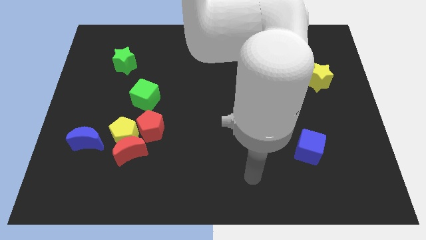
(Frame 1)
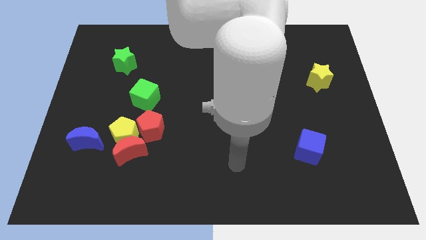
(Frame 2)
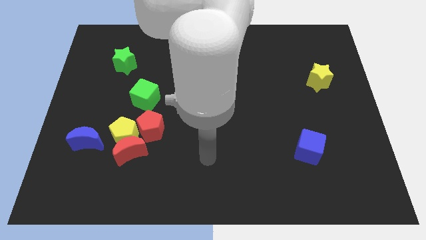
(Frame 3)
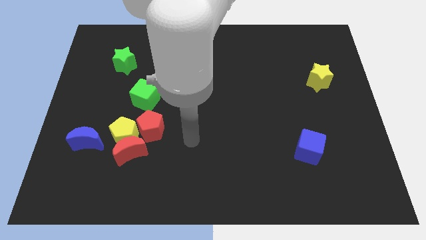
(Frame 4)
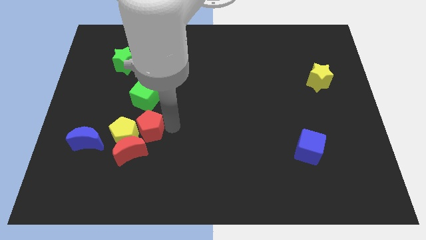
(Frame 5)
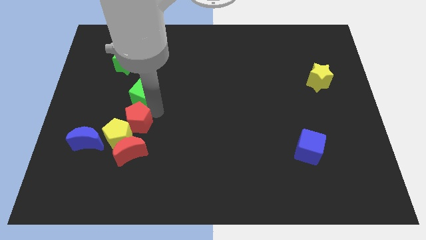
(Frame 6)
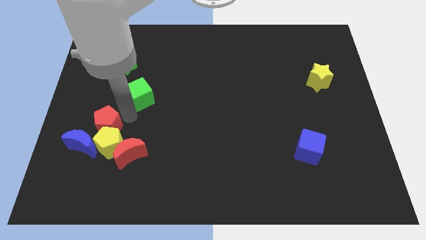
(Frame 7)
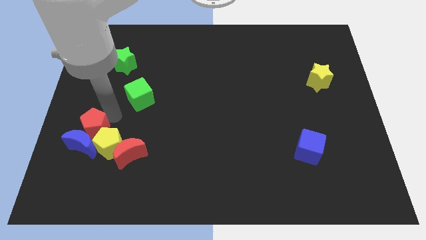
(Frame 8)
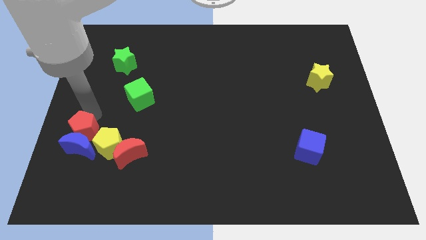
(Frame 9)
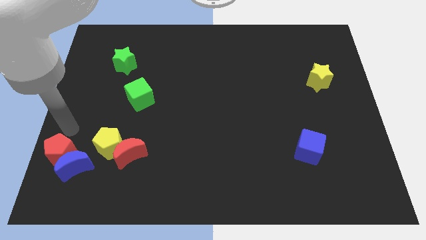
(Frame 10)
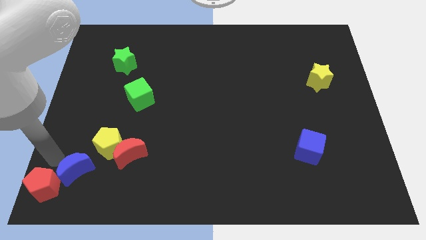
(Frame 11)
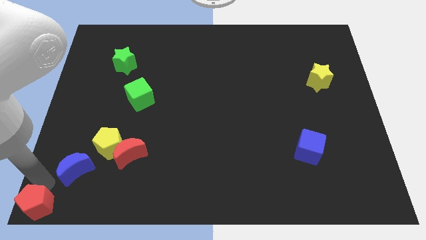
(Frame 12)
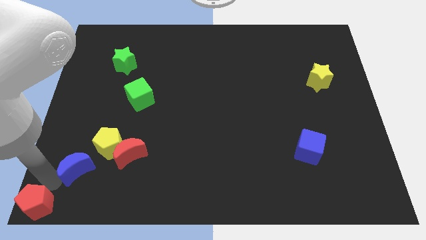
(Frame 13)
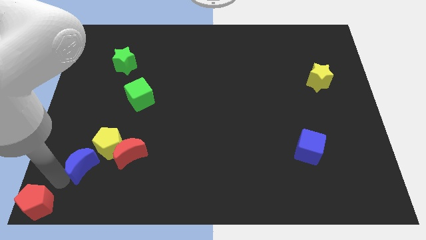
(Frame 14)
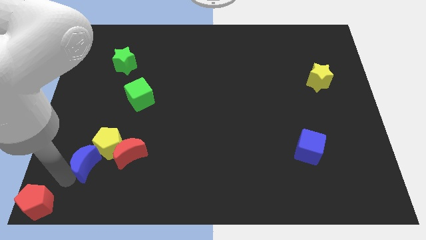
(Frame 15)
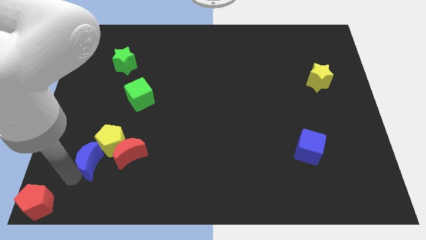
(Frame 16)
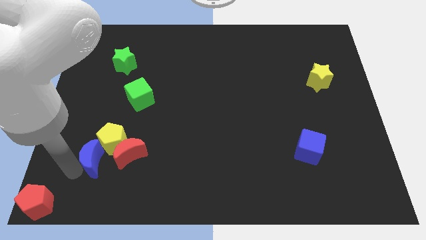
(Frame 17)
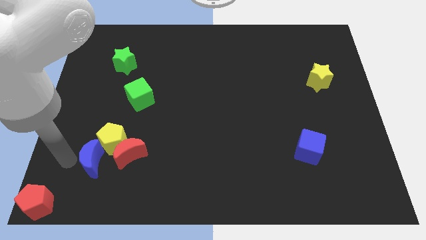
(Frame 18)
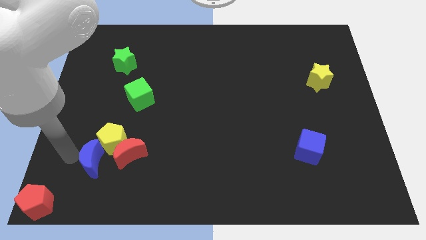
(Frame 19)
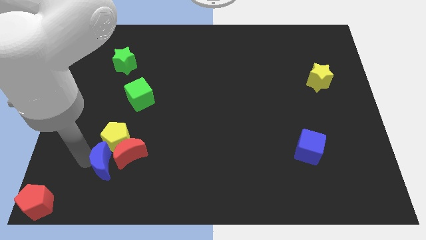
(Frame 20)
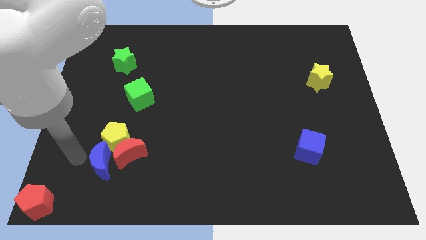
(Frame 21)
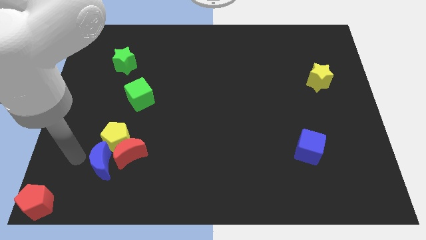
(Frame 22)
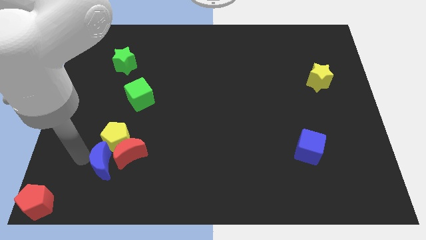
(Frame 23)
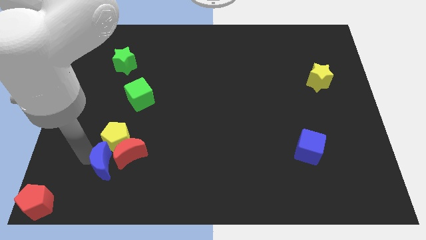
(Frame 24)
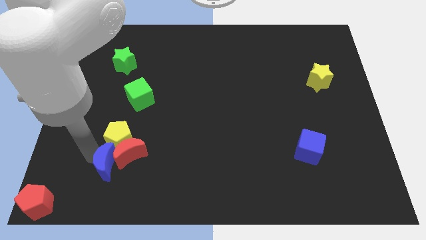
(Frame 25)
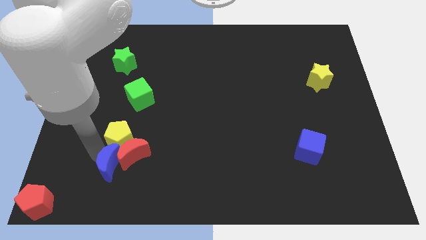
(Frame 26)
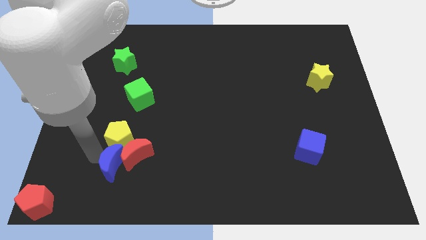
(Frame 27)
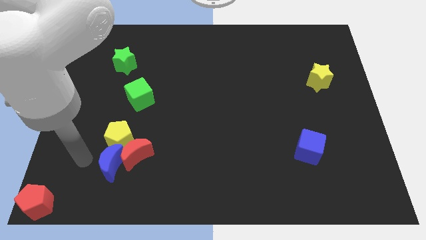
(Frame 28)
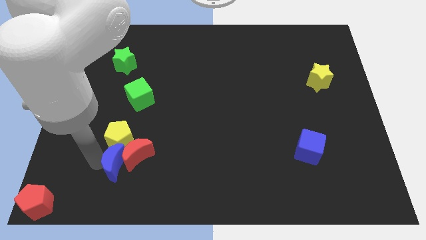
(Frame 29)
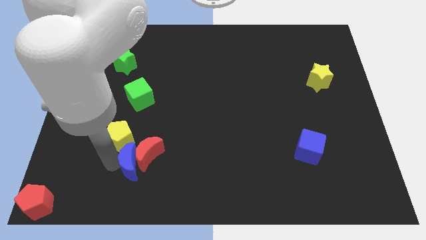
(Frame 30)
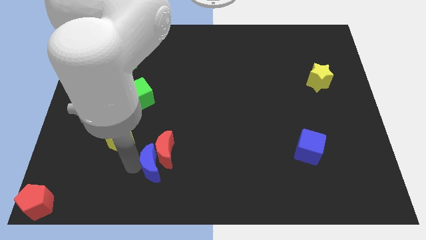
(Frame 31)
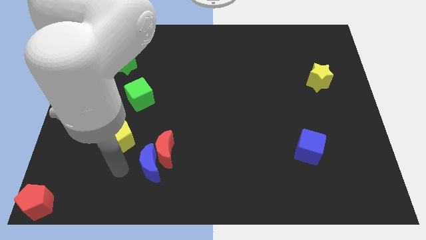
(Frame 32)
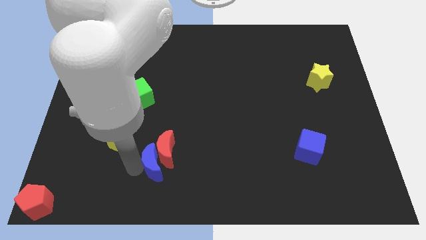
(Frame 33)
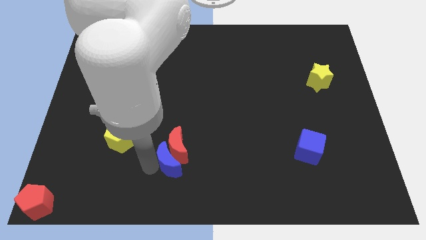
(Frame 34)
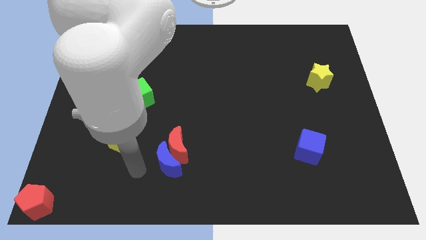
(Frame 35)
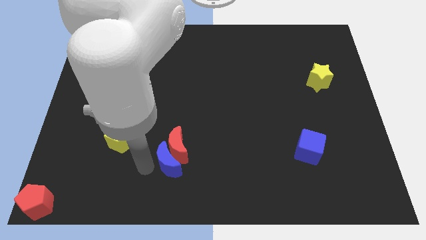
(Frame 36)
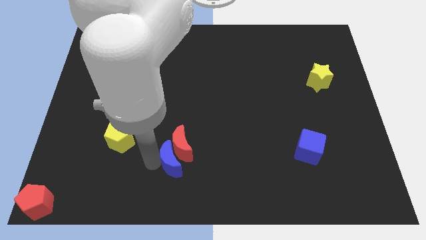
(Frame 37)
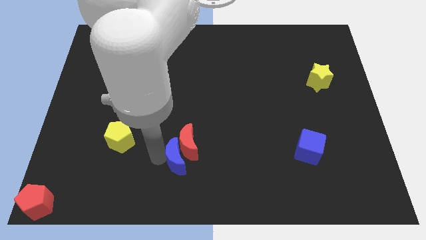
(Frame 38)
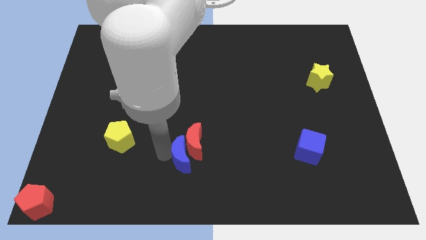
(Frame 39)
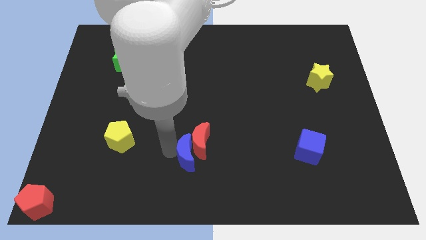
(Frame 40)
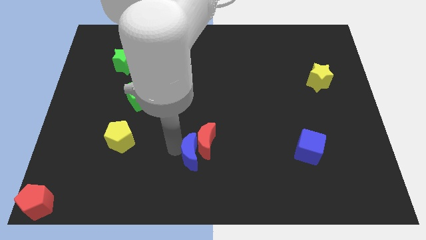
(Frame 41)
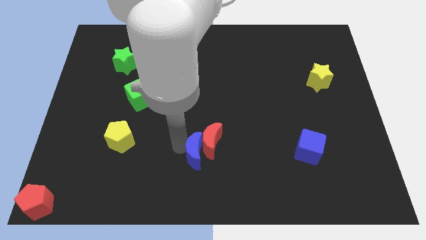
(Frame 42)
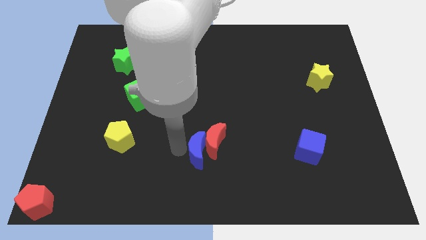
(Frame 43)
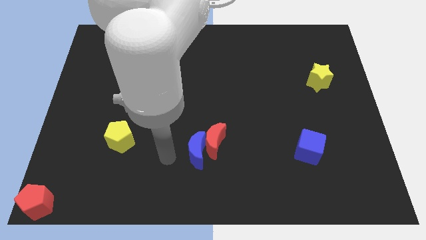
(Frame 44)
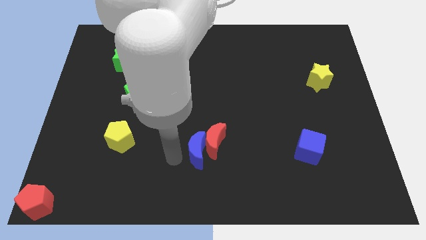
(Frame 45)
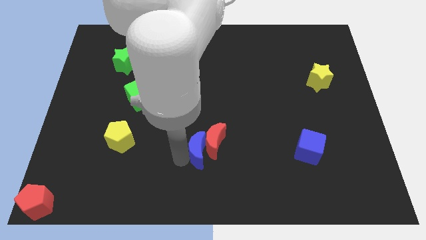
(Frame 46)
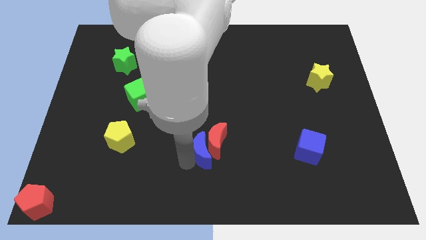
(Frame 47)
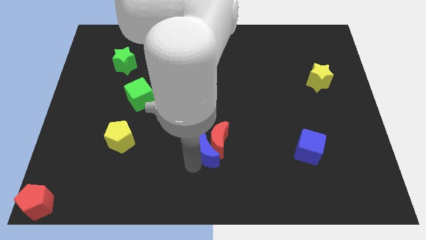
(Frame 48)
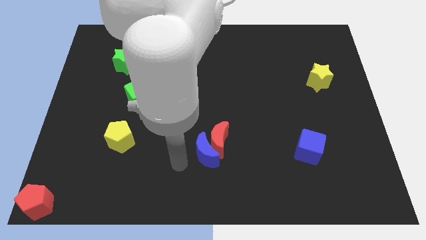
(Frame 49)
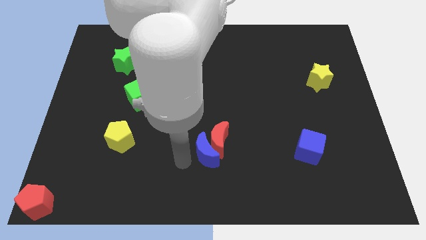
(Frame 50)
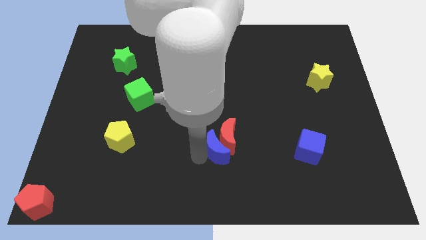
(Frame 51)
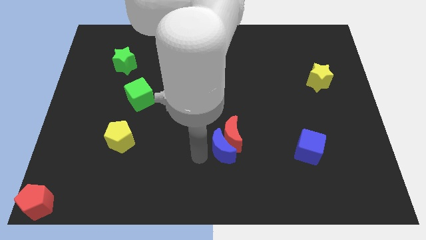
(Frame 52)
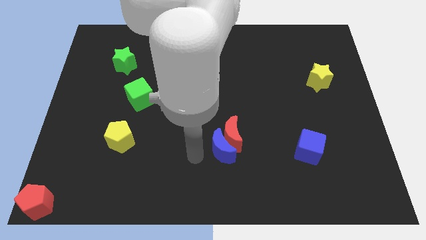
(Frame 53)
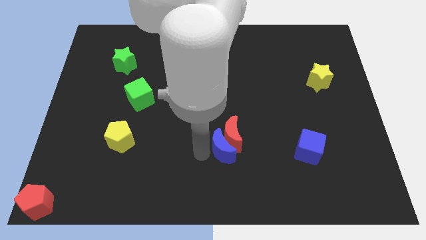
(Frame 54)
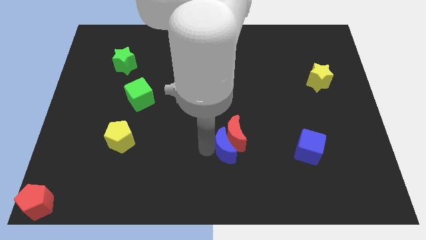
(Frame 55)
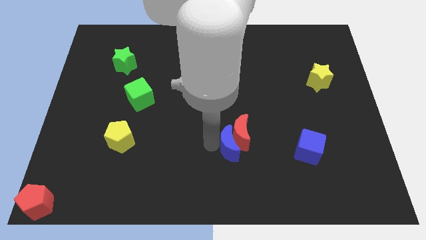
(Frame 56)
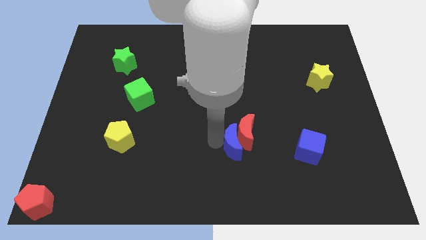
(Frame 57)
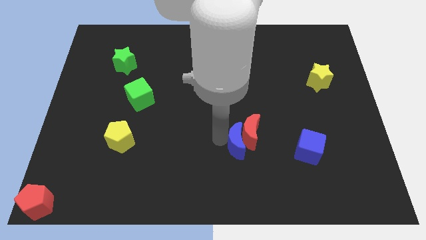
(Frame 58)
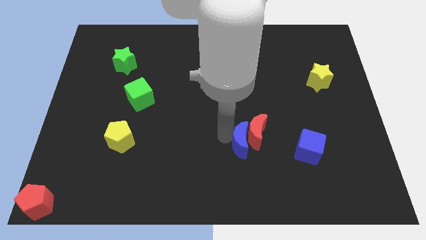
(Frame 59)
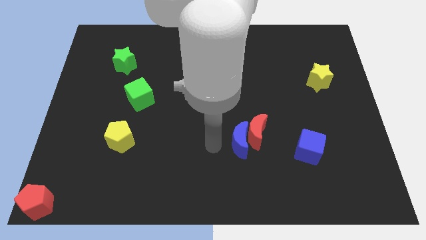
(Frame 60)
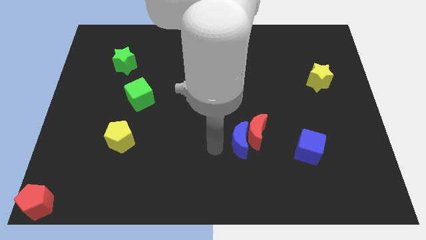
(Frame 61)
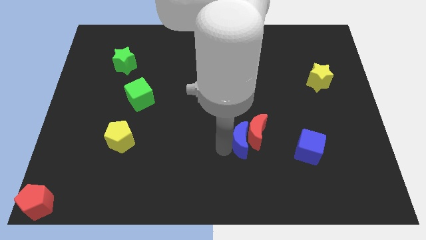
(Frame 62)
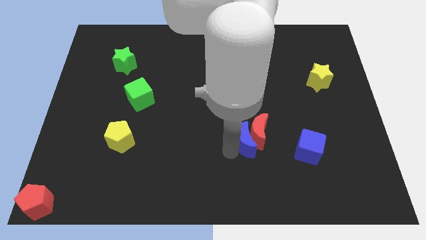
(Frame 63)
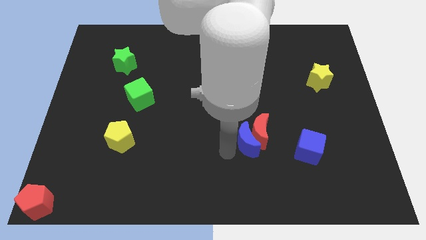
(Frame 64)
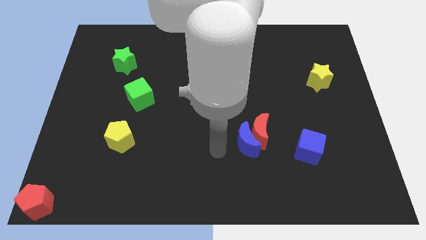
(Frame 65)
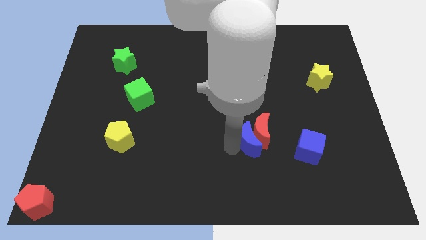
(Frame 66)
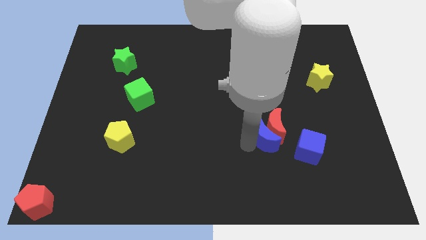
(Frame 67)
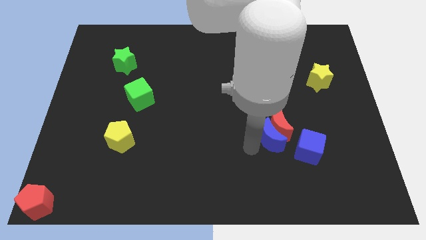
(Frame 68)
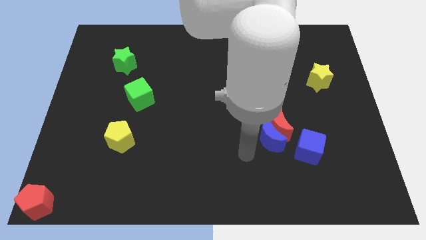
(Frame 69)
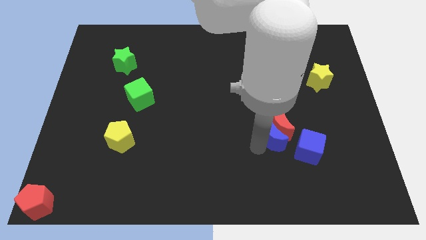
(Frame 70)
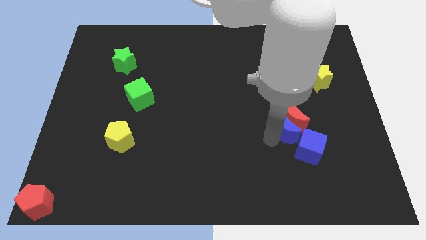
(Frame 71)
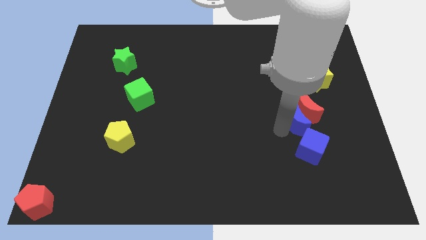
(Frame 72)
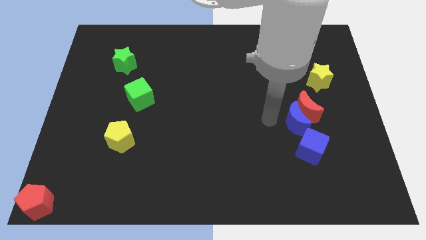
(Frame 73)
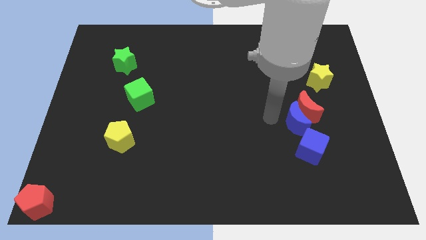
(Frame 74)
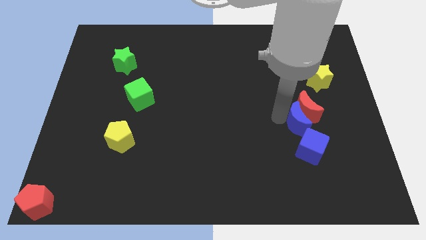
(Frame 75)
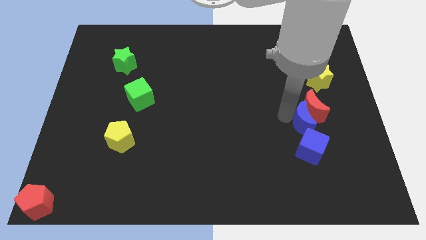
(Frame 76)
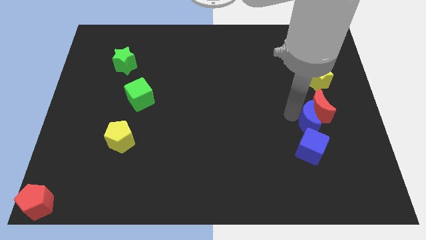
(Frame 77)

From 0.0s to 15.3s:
put the blue moon to the top right of the blue cube

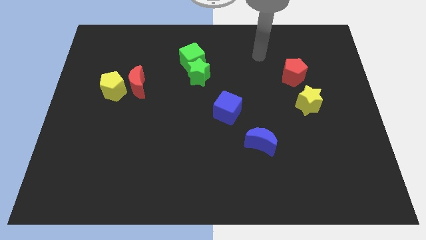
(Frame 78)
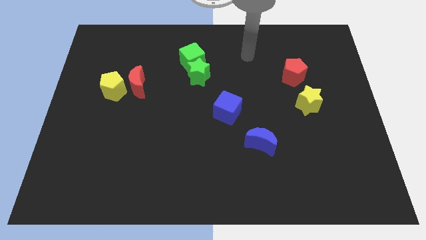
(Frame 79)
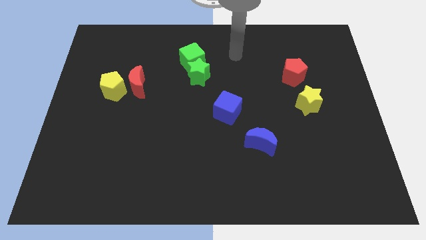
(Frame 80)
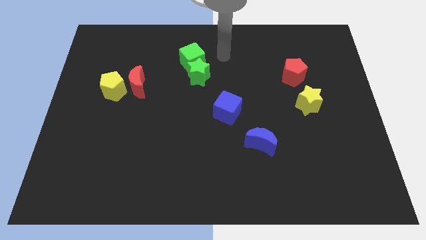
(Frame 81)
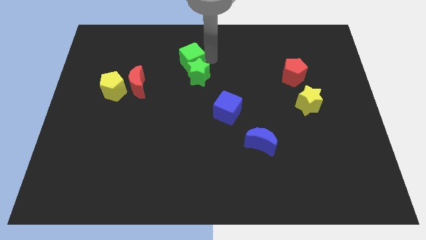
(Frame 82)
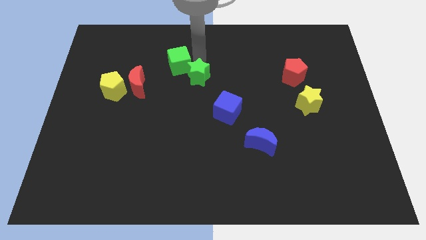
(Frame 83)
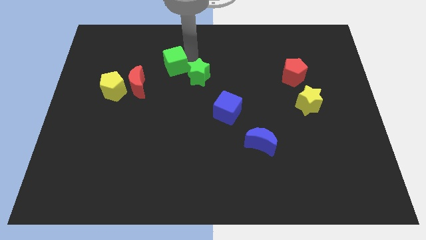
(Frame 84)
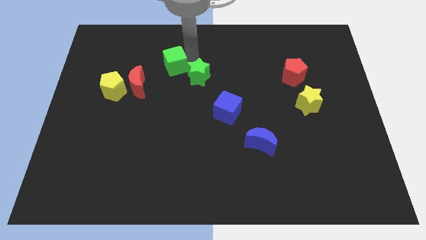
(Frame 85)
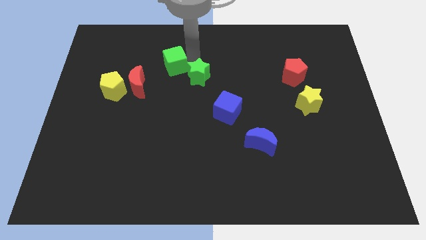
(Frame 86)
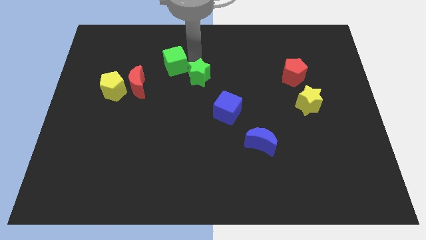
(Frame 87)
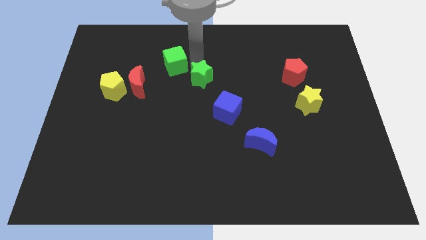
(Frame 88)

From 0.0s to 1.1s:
slide the green star to the top left side of the blue cube
